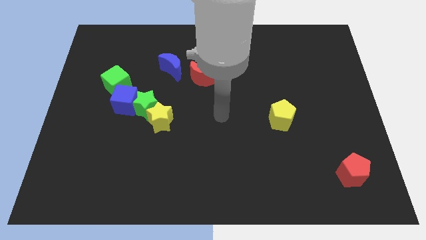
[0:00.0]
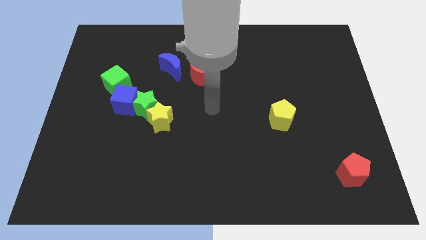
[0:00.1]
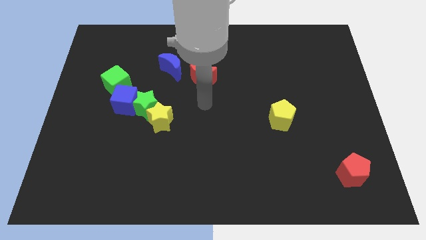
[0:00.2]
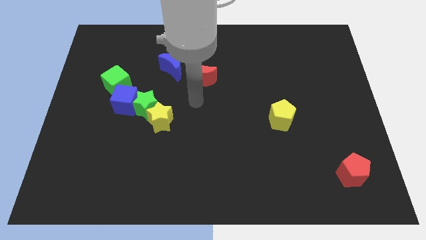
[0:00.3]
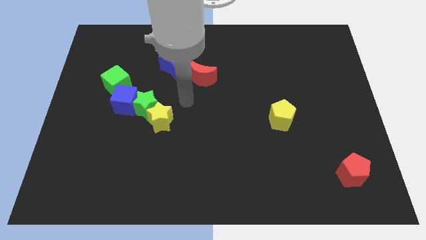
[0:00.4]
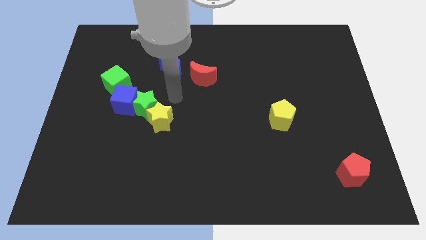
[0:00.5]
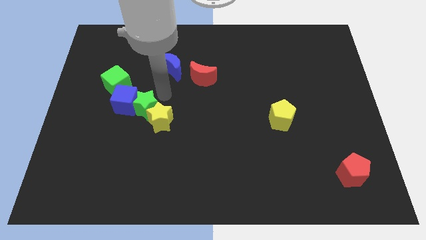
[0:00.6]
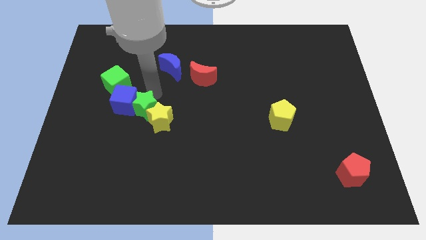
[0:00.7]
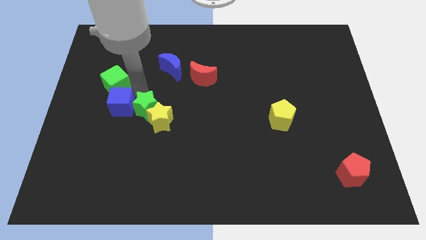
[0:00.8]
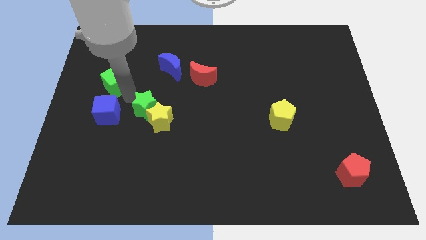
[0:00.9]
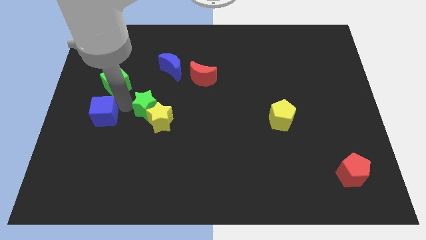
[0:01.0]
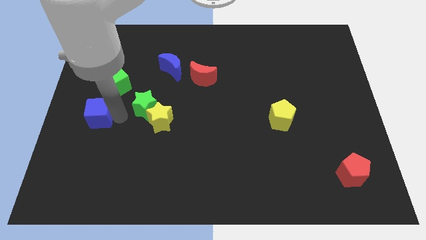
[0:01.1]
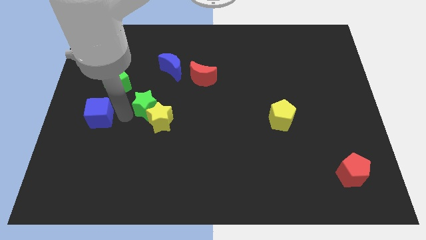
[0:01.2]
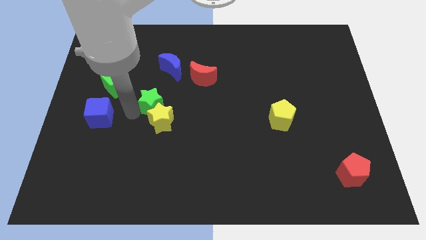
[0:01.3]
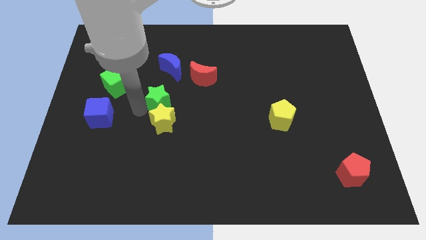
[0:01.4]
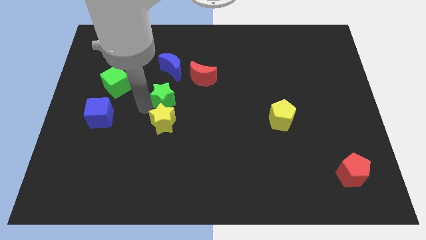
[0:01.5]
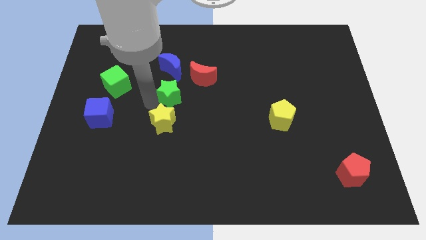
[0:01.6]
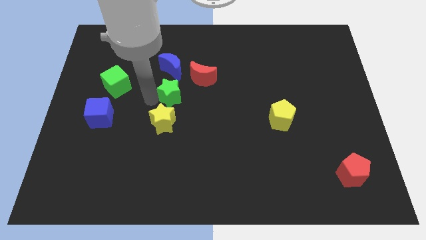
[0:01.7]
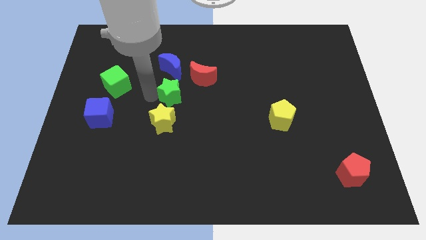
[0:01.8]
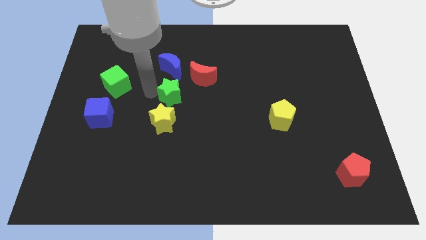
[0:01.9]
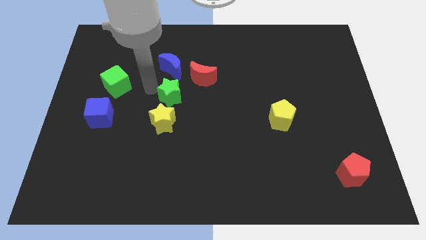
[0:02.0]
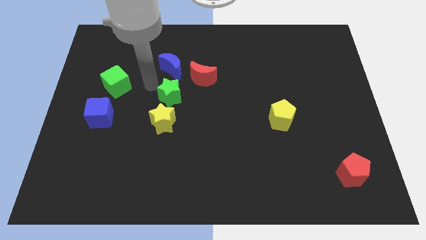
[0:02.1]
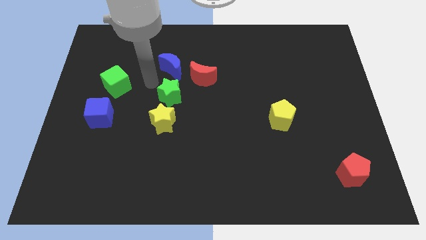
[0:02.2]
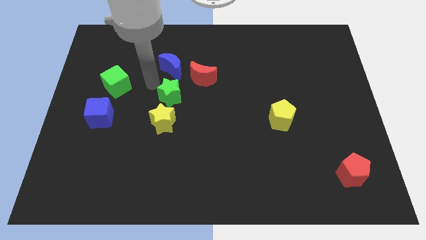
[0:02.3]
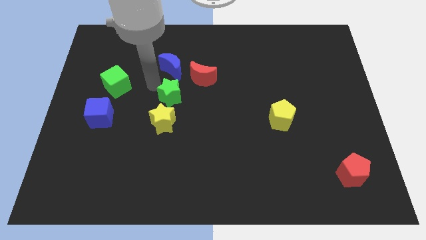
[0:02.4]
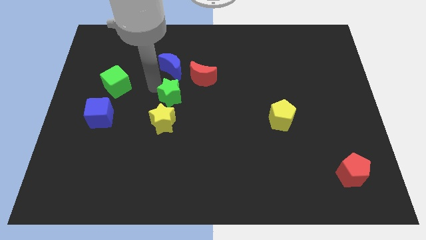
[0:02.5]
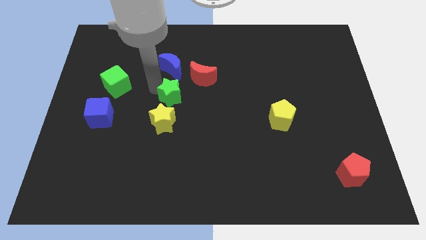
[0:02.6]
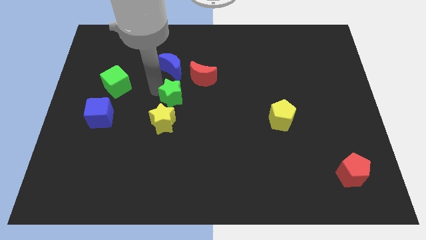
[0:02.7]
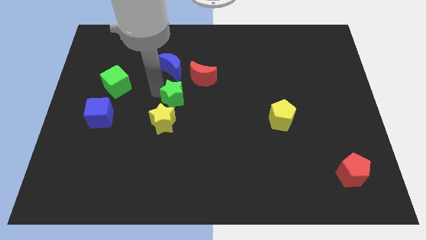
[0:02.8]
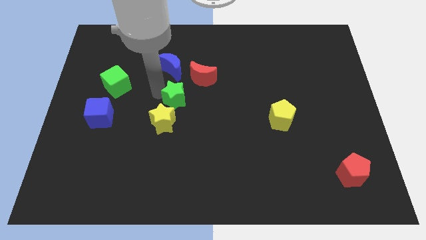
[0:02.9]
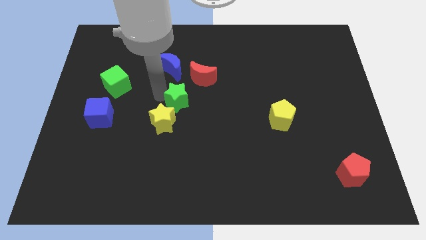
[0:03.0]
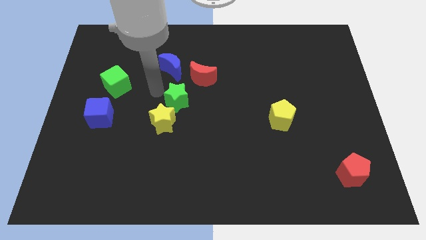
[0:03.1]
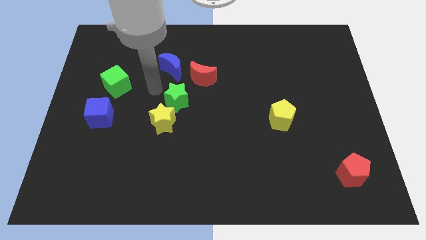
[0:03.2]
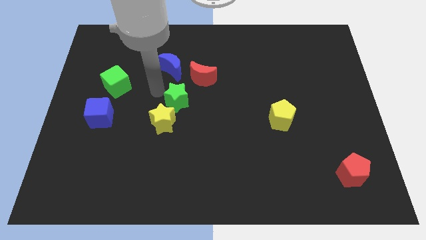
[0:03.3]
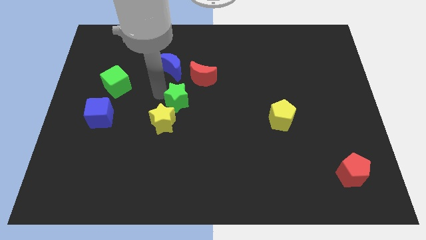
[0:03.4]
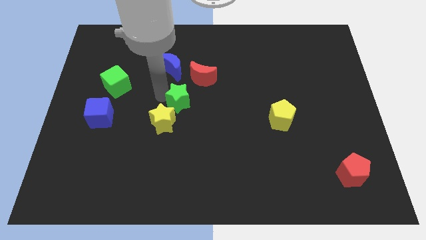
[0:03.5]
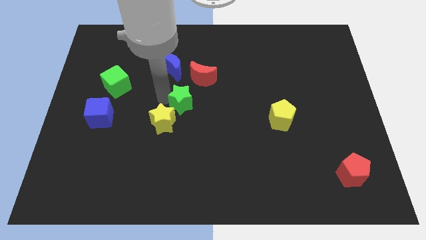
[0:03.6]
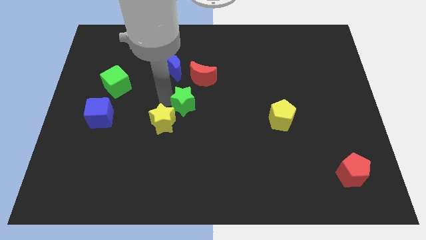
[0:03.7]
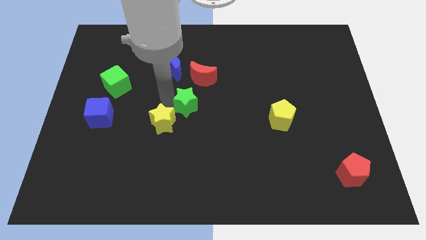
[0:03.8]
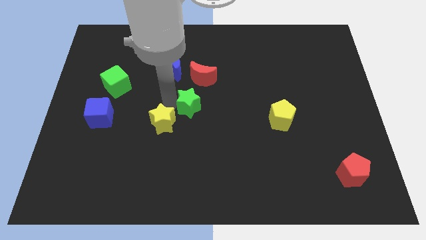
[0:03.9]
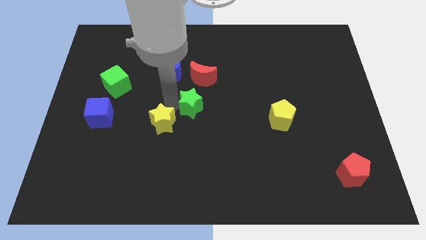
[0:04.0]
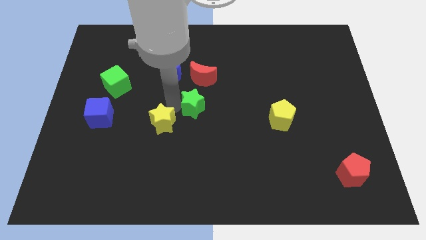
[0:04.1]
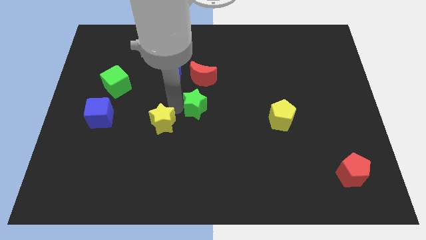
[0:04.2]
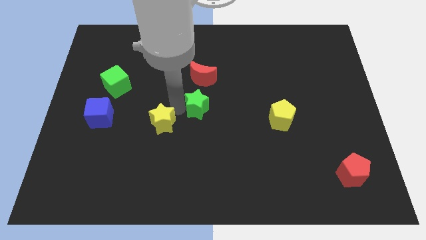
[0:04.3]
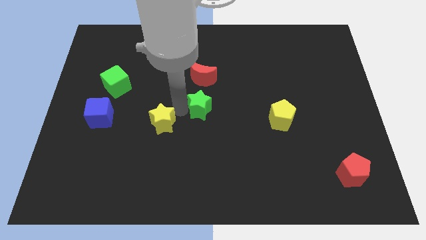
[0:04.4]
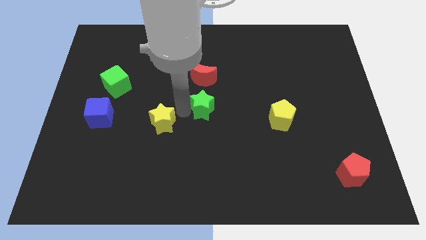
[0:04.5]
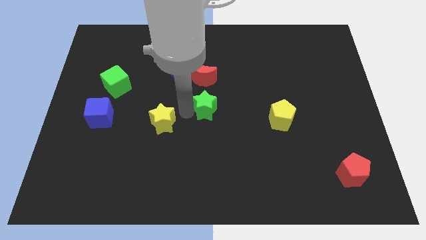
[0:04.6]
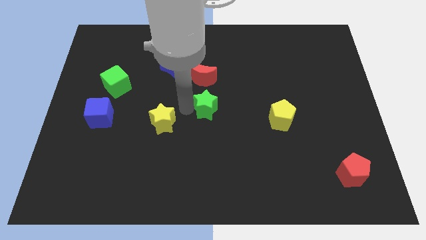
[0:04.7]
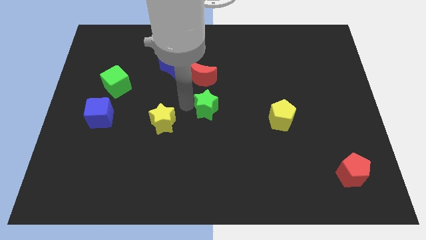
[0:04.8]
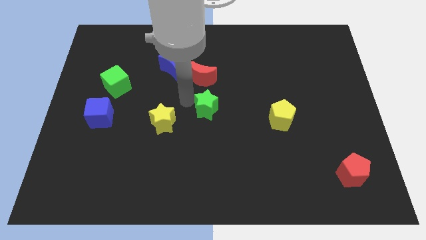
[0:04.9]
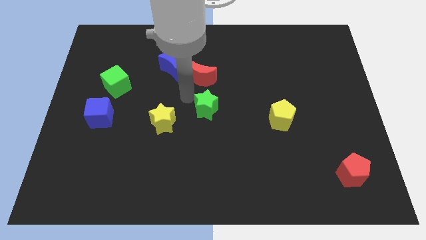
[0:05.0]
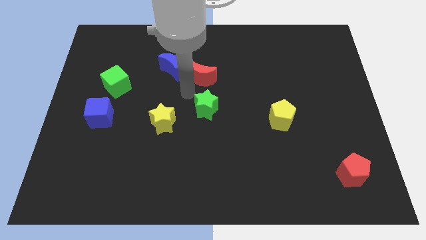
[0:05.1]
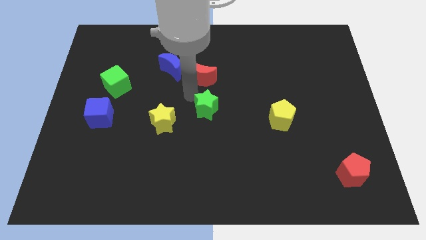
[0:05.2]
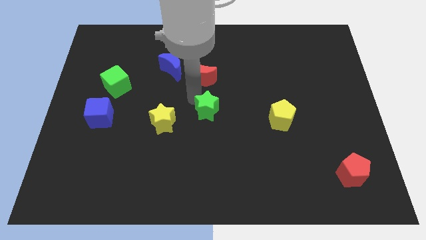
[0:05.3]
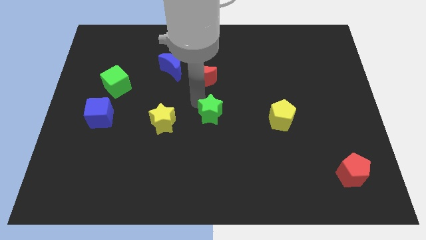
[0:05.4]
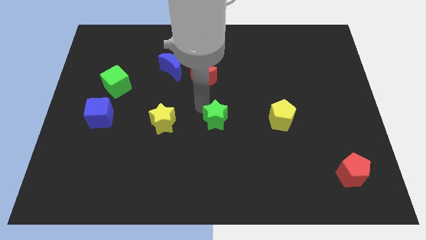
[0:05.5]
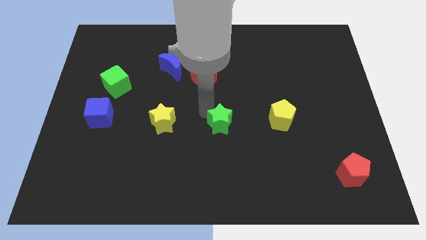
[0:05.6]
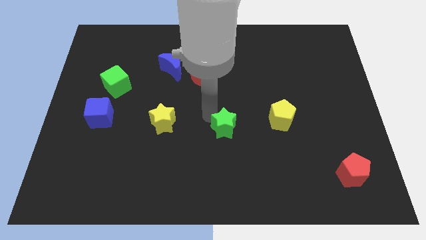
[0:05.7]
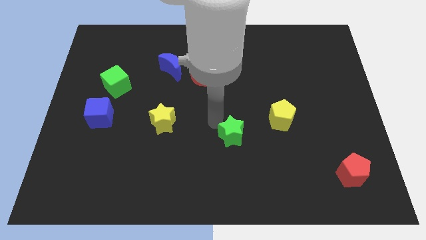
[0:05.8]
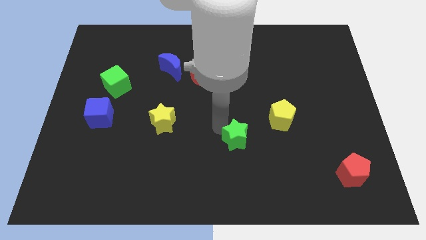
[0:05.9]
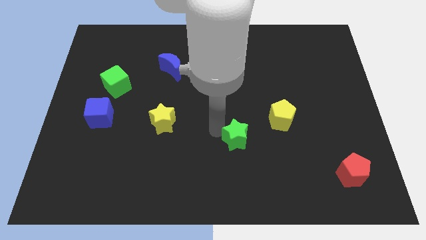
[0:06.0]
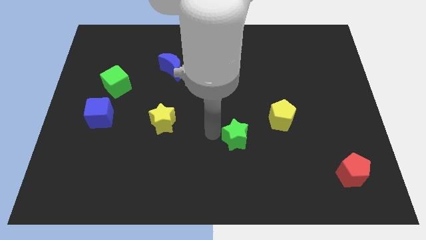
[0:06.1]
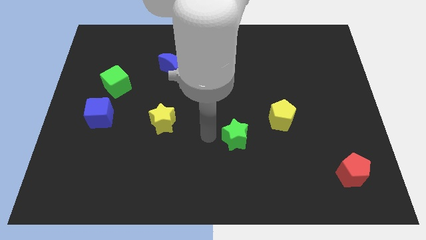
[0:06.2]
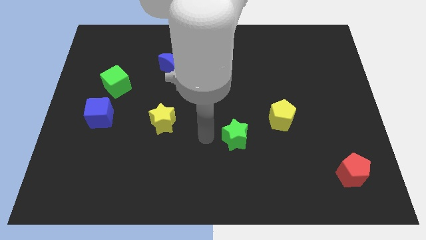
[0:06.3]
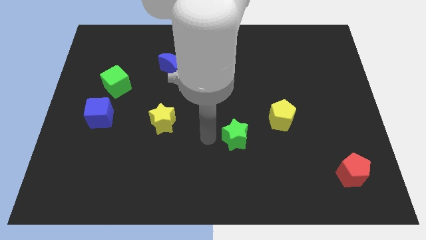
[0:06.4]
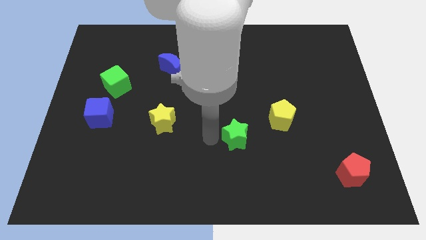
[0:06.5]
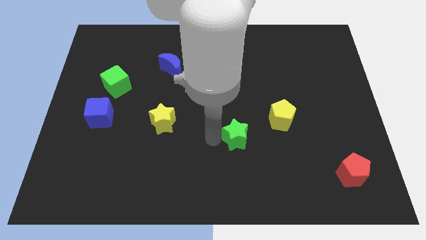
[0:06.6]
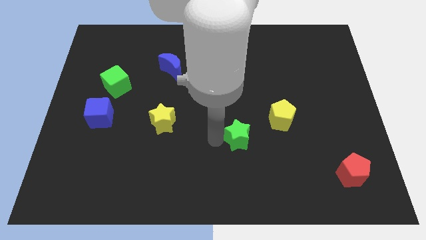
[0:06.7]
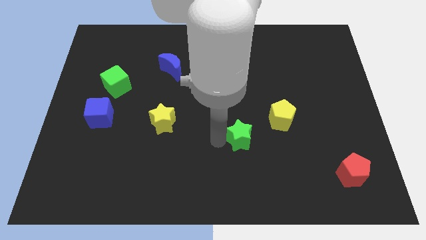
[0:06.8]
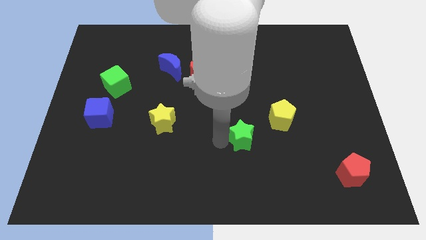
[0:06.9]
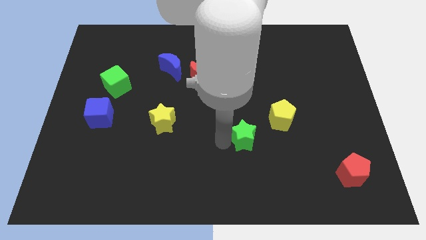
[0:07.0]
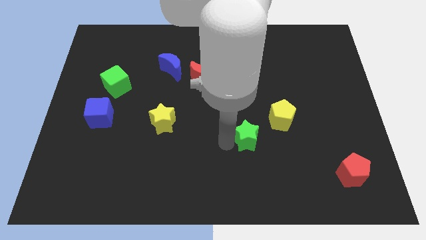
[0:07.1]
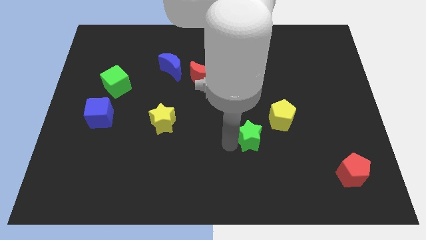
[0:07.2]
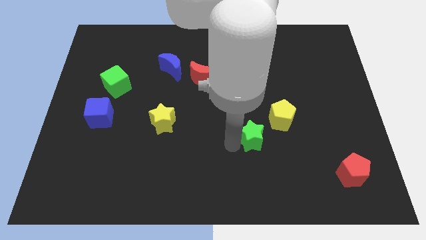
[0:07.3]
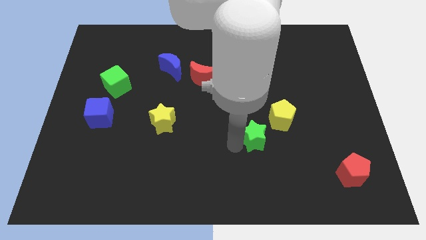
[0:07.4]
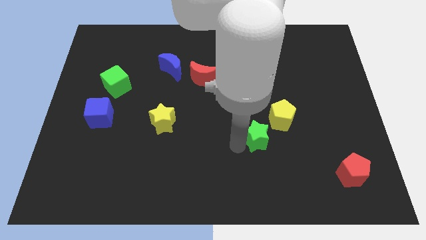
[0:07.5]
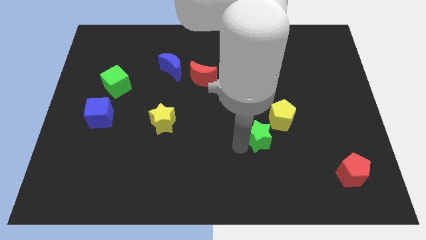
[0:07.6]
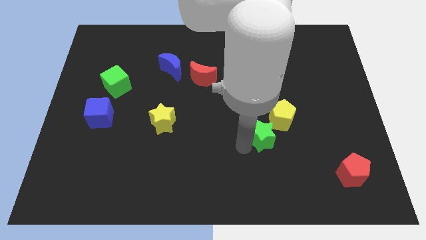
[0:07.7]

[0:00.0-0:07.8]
move the green star below the yellow pentagon

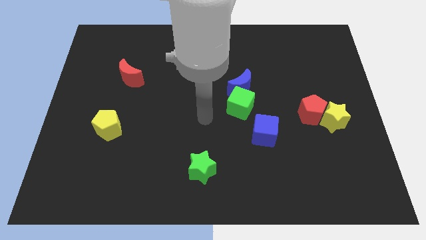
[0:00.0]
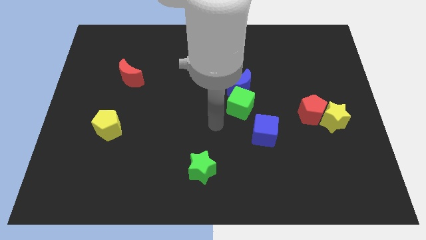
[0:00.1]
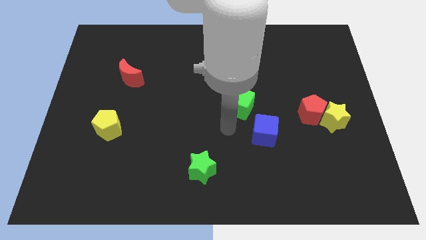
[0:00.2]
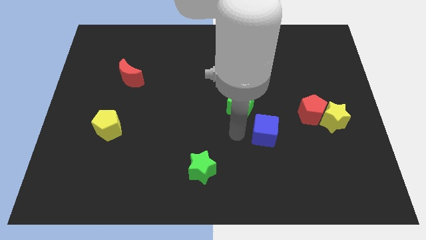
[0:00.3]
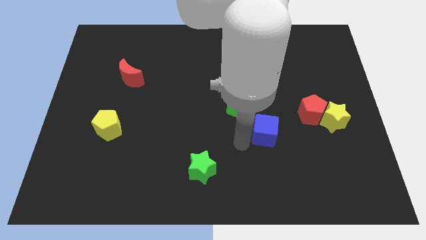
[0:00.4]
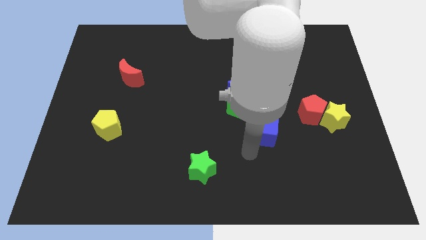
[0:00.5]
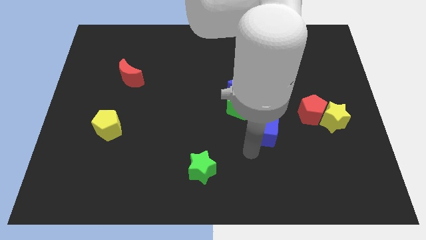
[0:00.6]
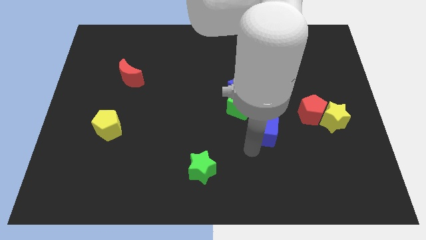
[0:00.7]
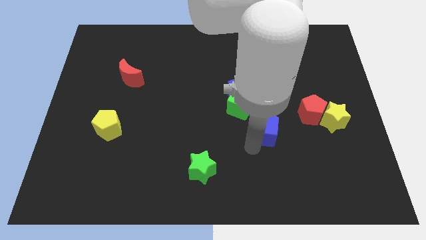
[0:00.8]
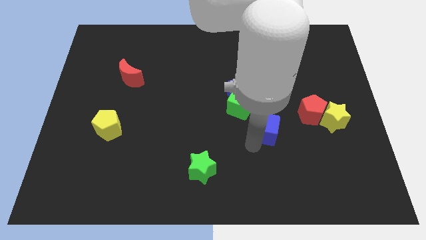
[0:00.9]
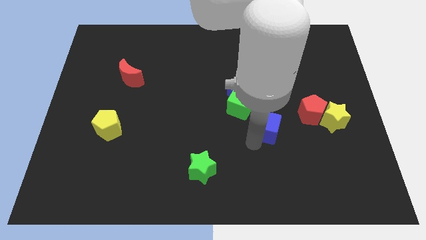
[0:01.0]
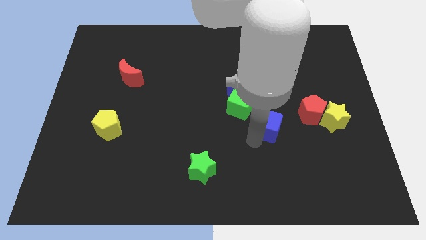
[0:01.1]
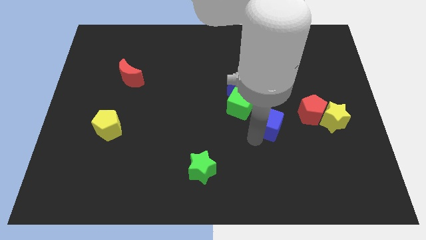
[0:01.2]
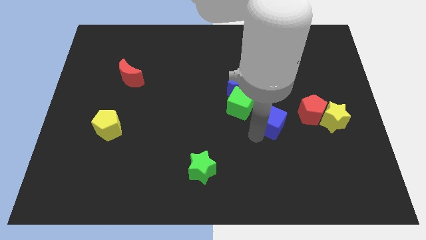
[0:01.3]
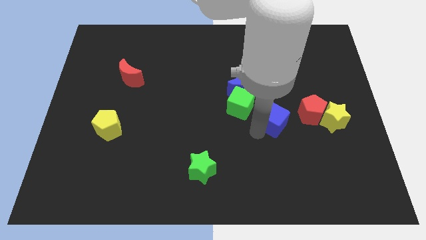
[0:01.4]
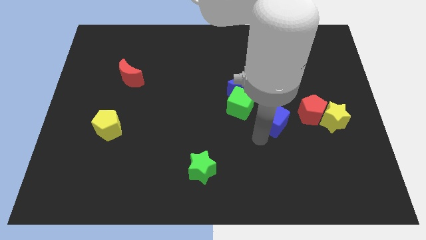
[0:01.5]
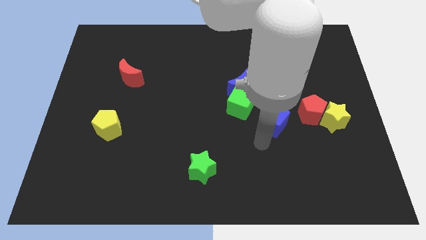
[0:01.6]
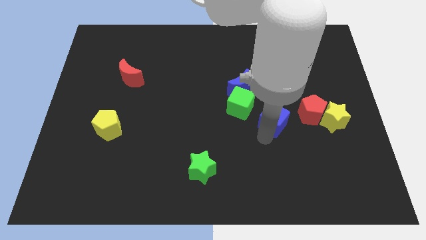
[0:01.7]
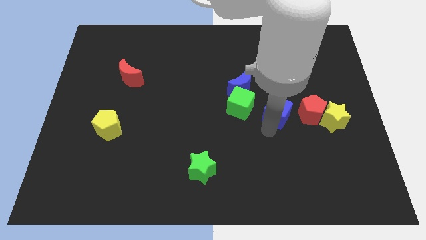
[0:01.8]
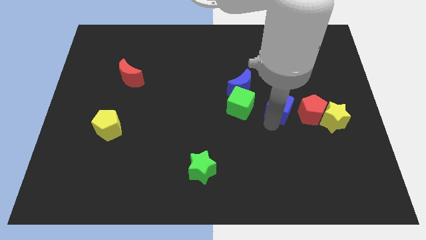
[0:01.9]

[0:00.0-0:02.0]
move the blue cube diagonally up and to the left of the red pentagon
